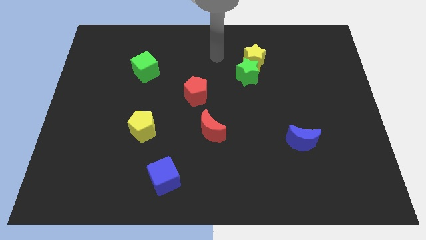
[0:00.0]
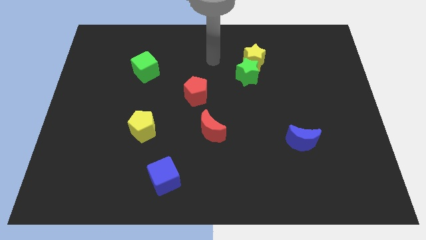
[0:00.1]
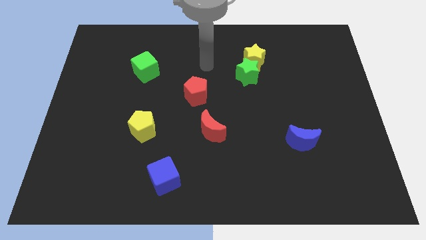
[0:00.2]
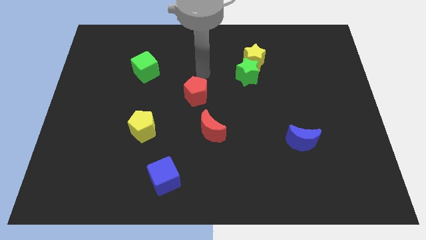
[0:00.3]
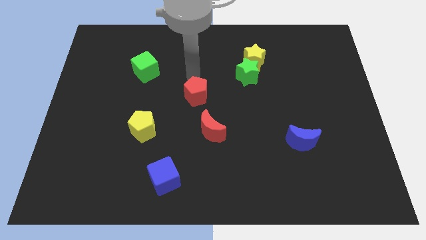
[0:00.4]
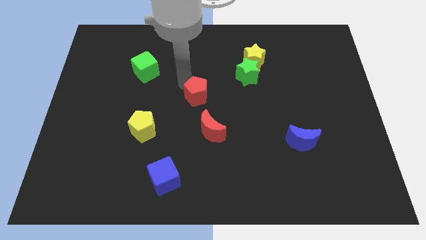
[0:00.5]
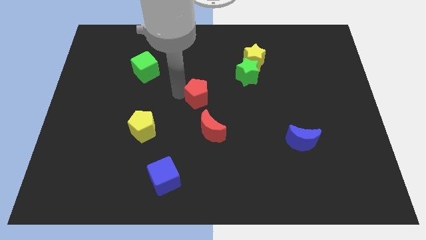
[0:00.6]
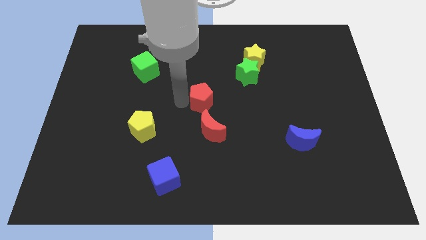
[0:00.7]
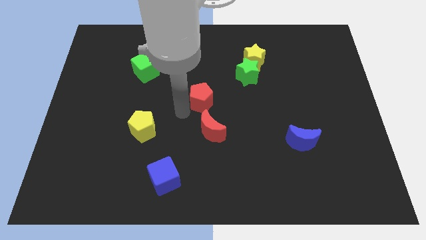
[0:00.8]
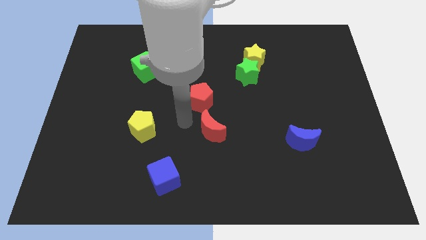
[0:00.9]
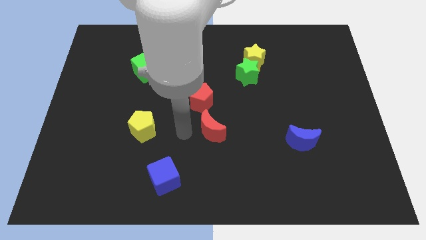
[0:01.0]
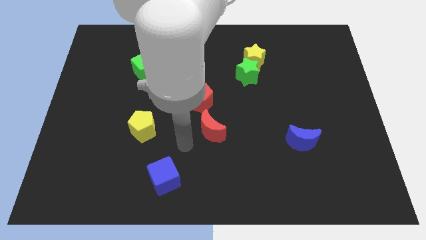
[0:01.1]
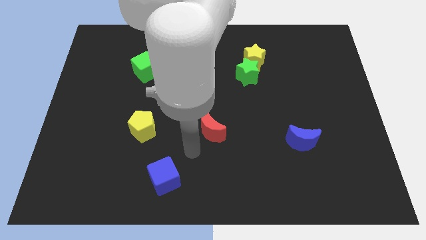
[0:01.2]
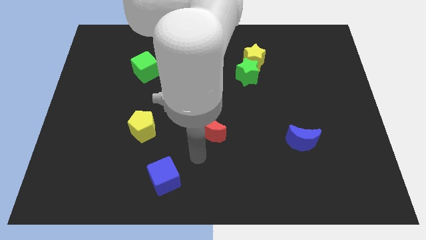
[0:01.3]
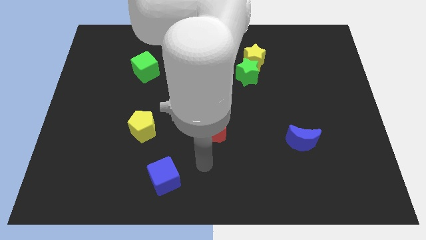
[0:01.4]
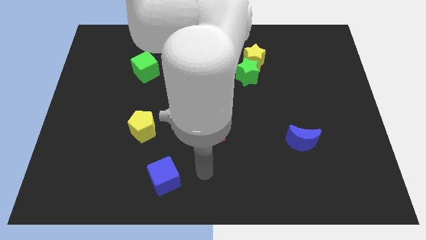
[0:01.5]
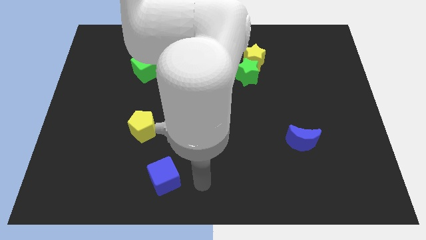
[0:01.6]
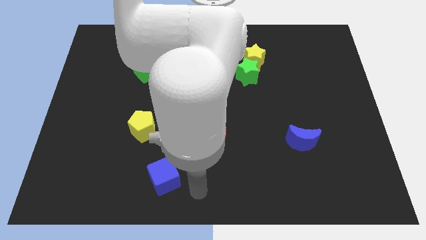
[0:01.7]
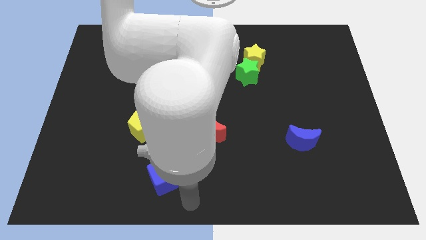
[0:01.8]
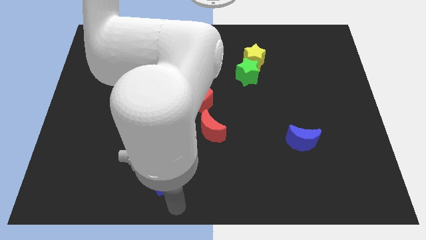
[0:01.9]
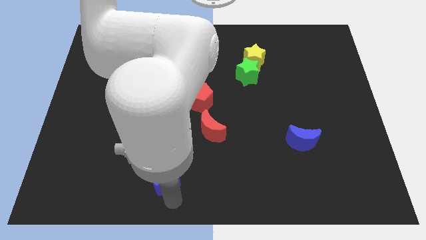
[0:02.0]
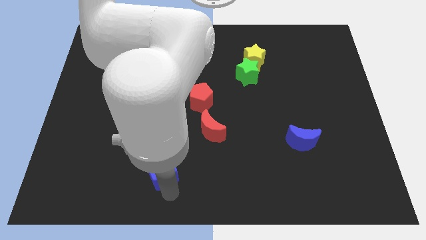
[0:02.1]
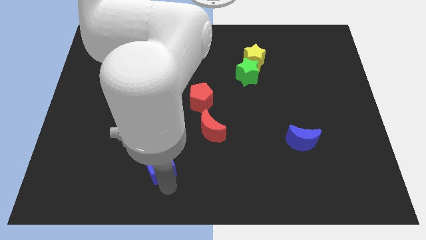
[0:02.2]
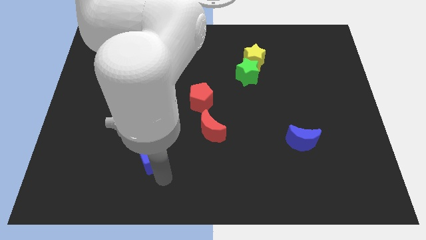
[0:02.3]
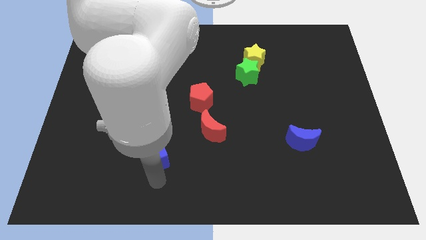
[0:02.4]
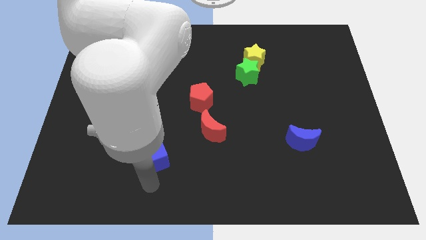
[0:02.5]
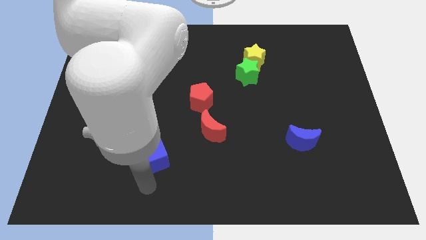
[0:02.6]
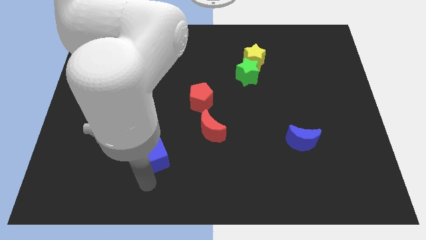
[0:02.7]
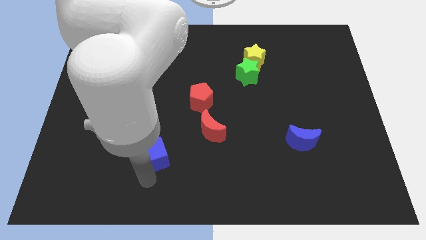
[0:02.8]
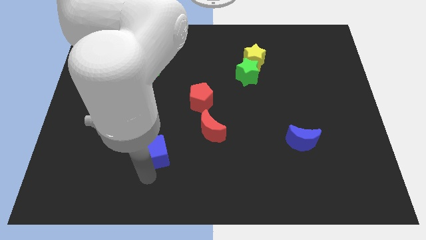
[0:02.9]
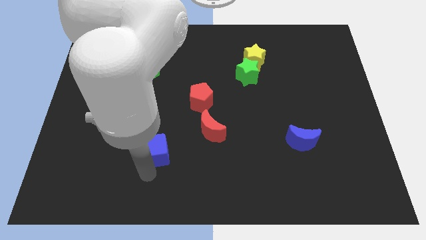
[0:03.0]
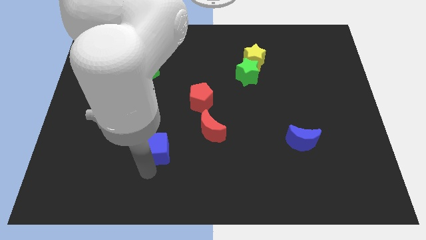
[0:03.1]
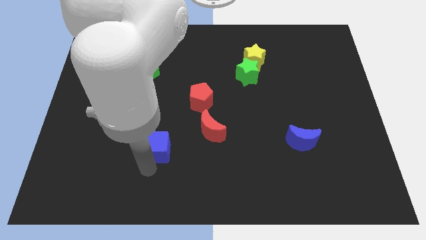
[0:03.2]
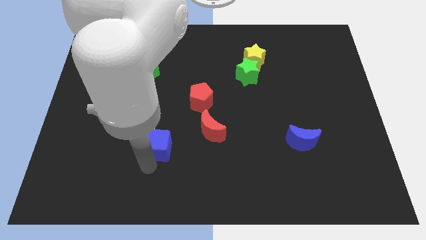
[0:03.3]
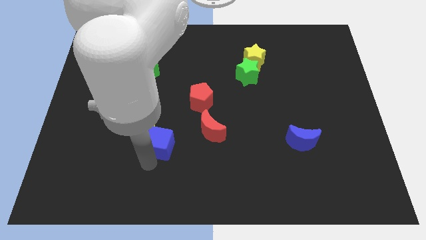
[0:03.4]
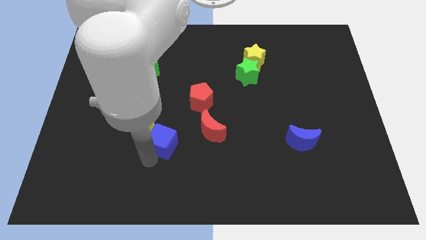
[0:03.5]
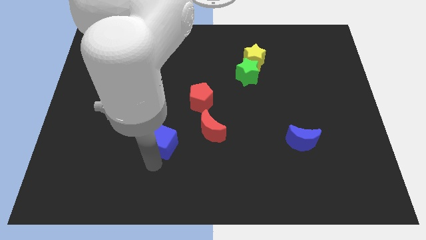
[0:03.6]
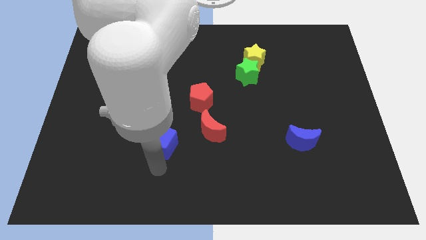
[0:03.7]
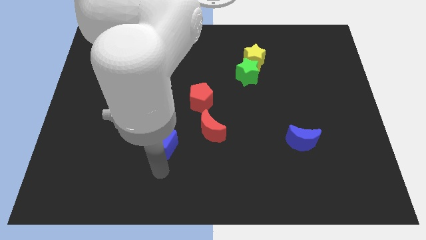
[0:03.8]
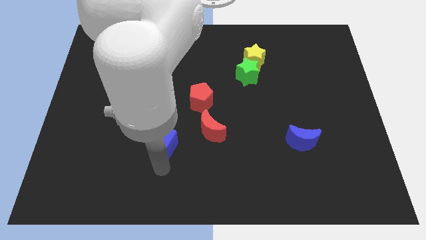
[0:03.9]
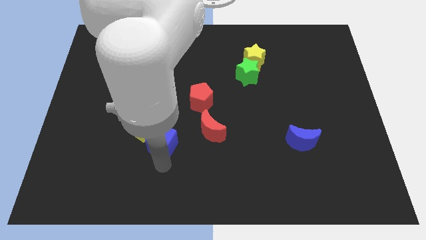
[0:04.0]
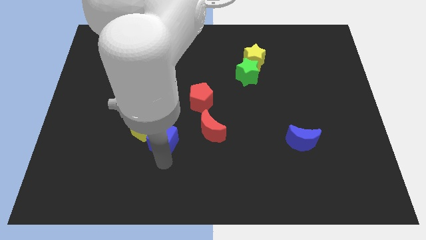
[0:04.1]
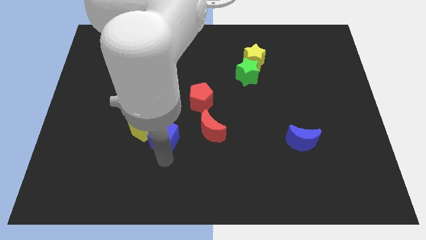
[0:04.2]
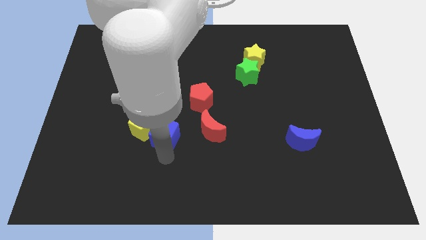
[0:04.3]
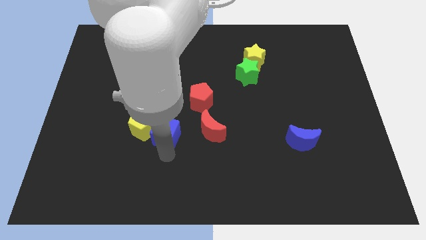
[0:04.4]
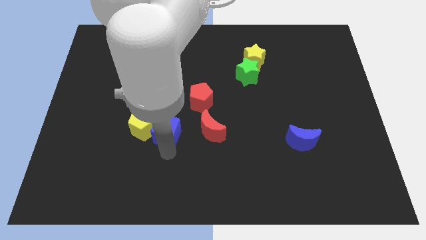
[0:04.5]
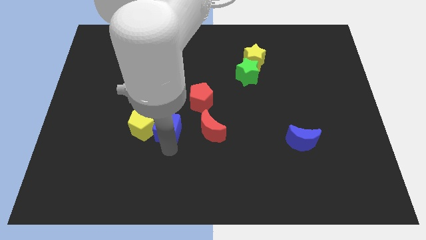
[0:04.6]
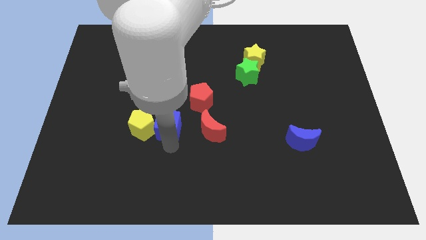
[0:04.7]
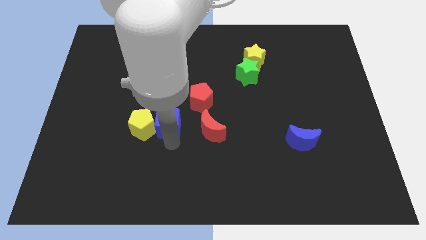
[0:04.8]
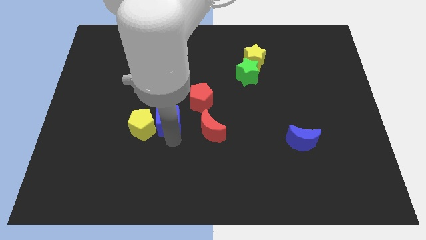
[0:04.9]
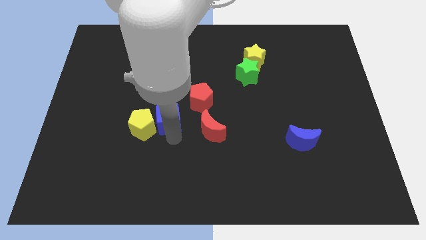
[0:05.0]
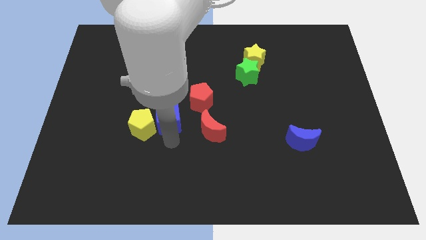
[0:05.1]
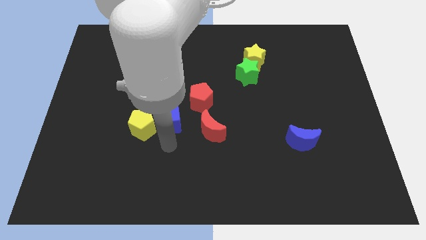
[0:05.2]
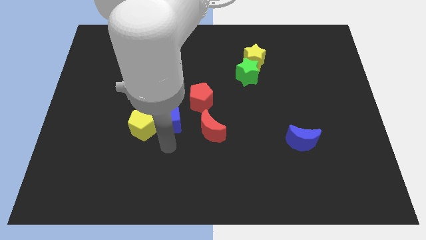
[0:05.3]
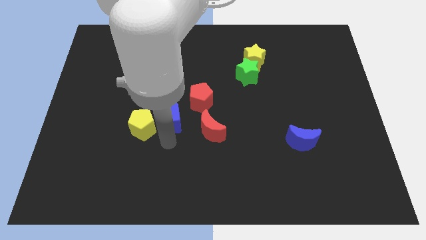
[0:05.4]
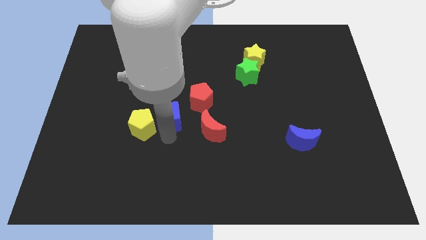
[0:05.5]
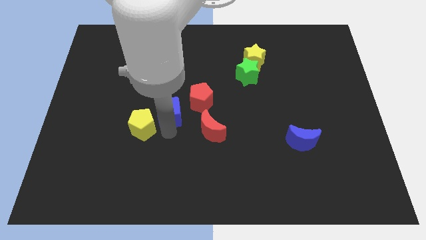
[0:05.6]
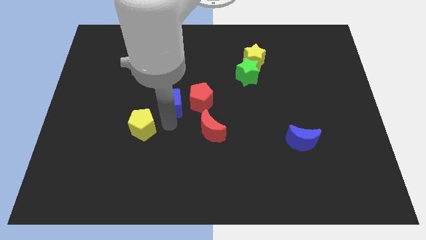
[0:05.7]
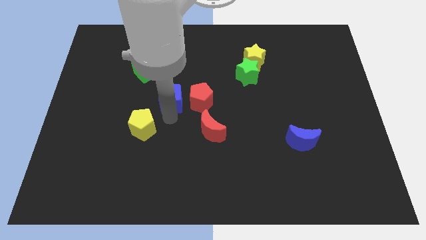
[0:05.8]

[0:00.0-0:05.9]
push the blue cube up

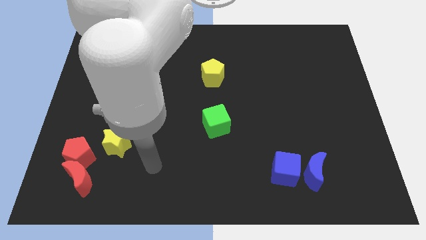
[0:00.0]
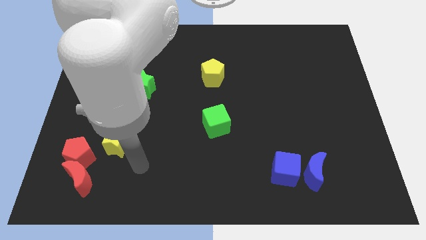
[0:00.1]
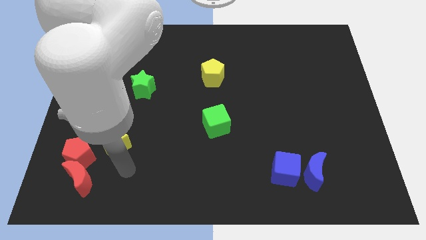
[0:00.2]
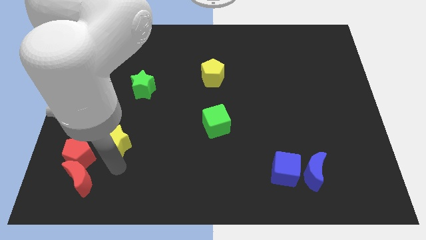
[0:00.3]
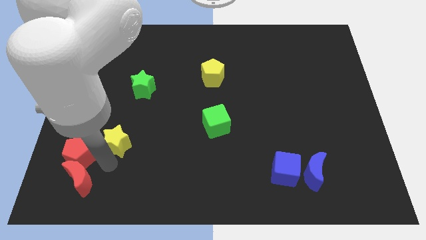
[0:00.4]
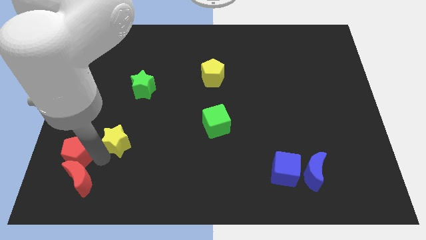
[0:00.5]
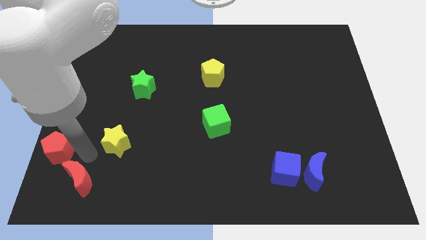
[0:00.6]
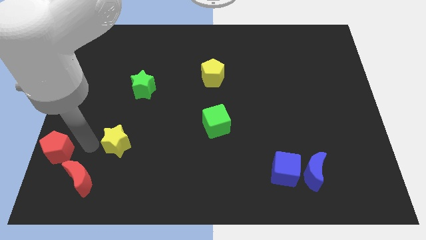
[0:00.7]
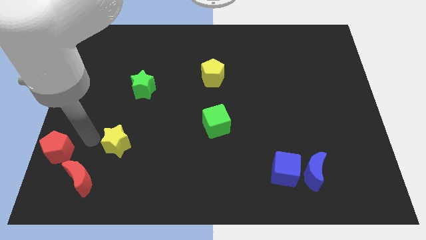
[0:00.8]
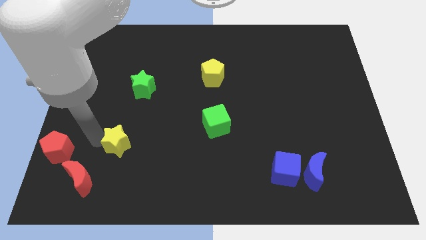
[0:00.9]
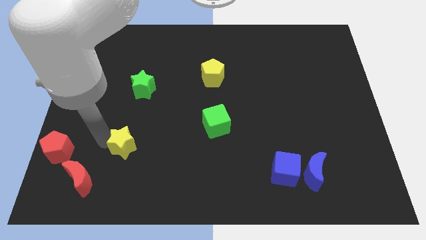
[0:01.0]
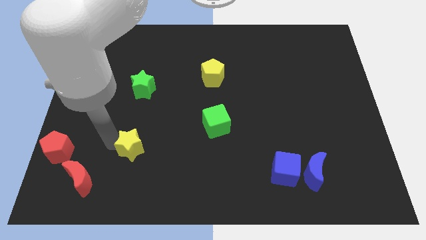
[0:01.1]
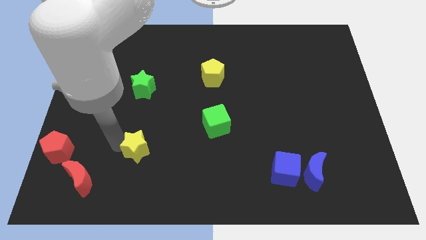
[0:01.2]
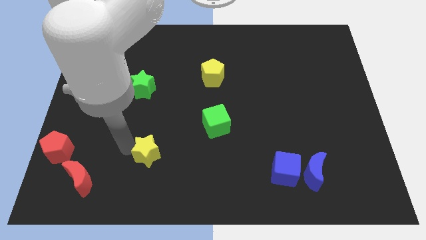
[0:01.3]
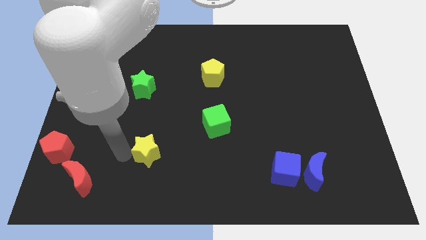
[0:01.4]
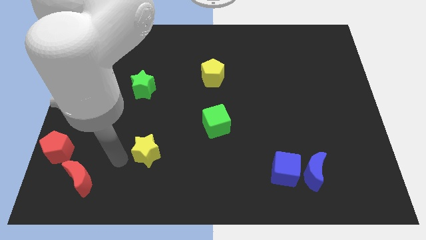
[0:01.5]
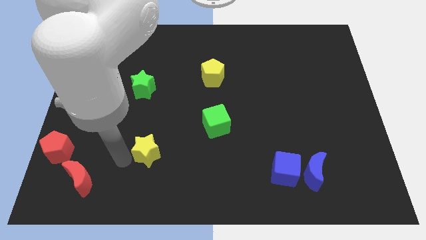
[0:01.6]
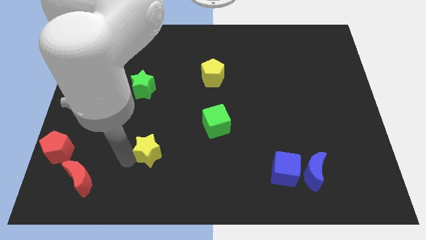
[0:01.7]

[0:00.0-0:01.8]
move the yellow star right a little

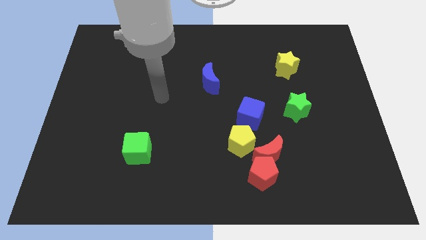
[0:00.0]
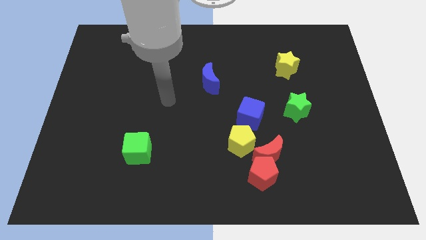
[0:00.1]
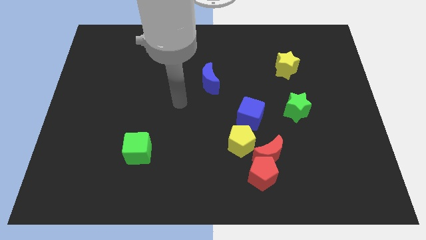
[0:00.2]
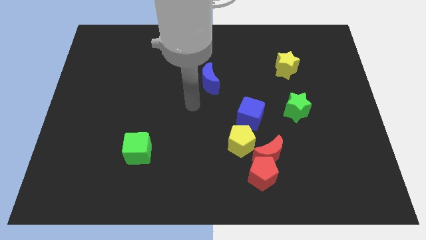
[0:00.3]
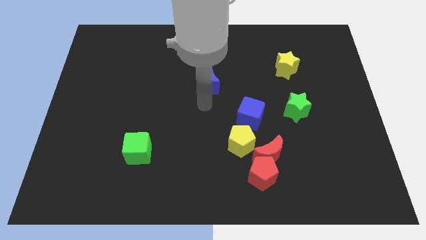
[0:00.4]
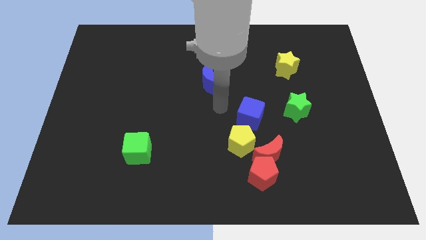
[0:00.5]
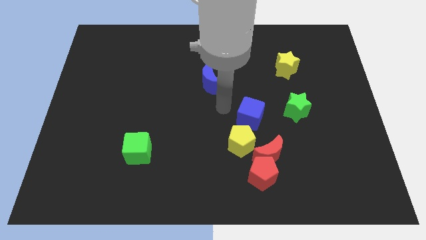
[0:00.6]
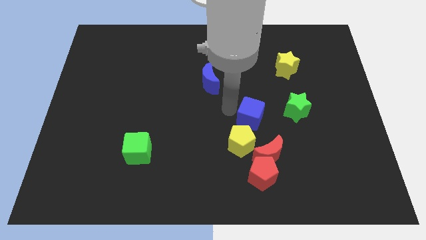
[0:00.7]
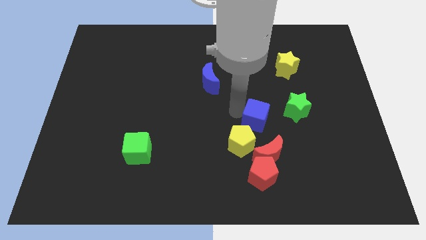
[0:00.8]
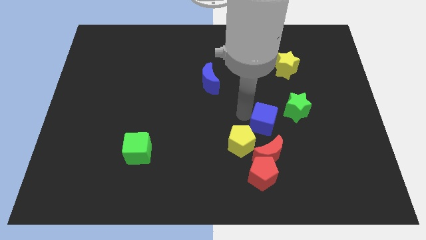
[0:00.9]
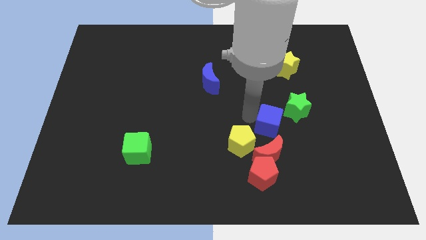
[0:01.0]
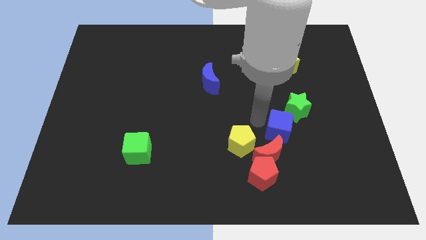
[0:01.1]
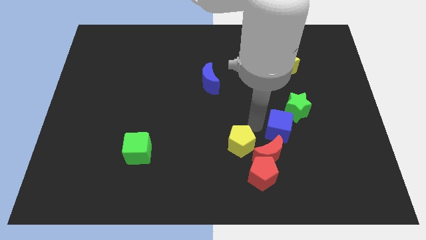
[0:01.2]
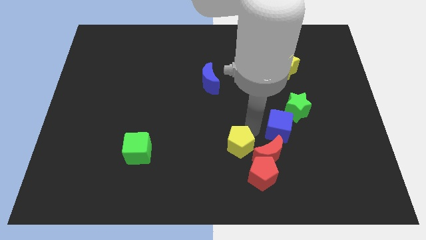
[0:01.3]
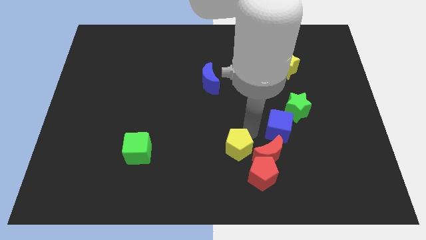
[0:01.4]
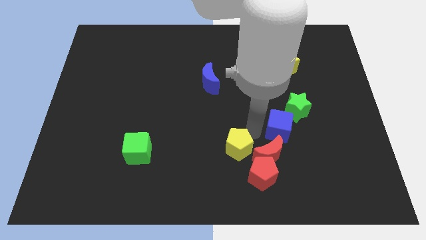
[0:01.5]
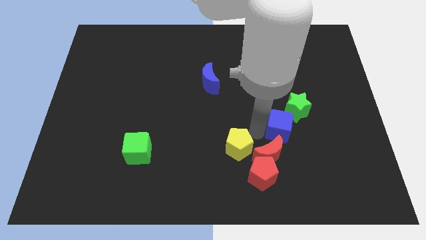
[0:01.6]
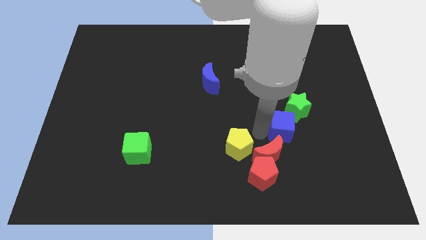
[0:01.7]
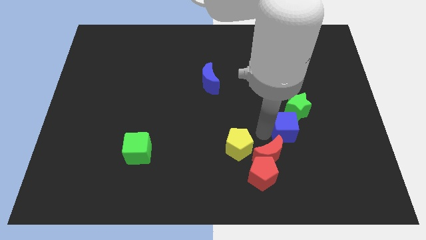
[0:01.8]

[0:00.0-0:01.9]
push the blue cube slightly to the right
